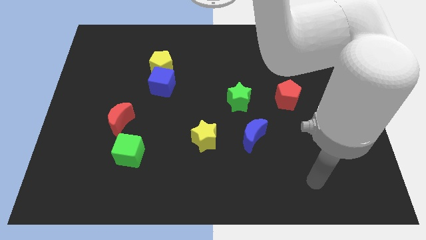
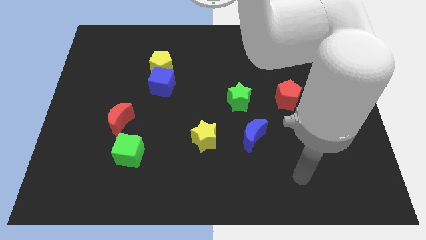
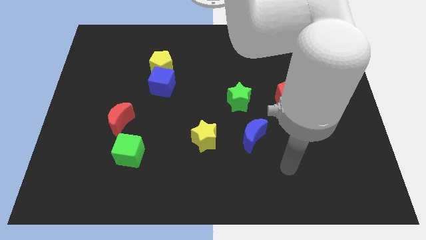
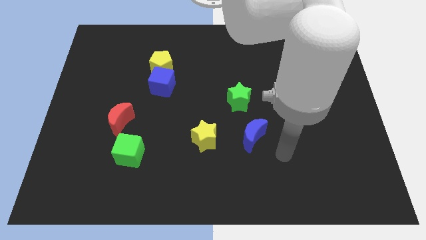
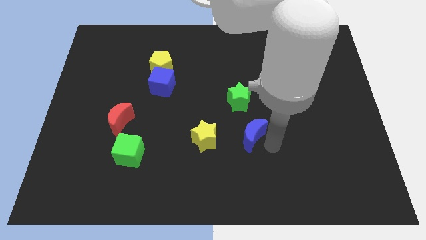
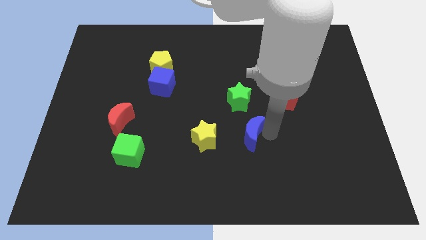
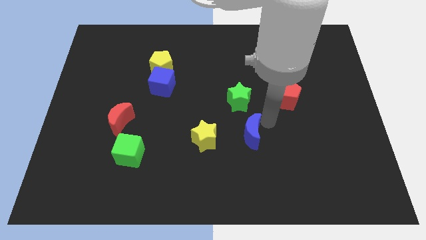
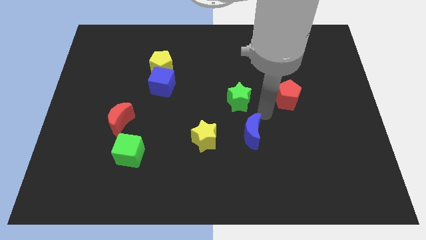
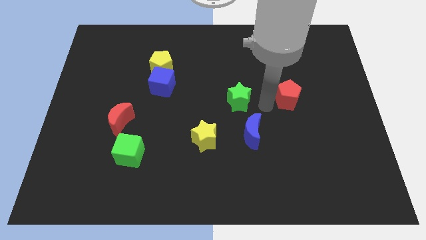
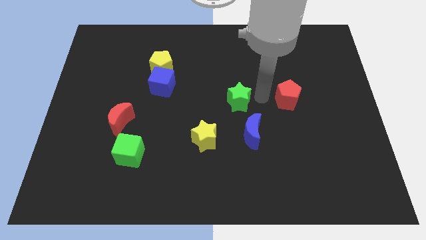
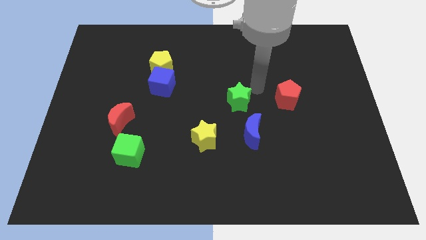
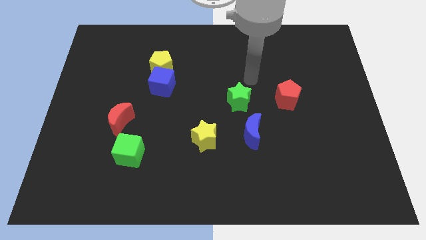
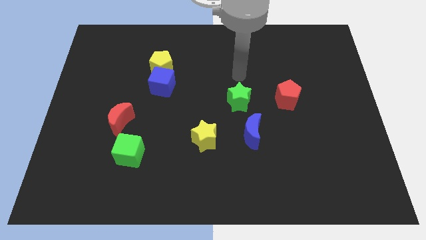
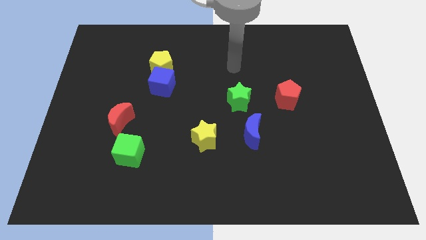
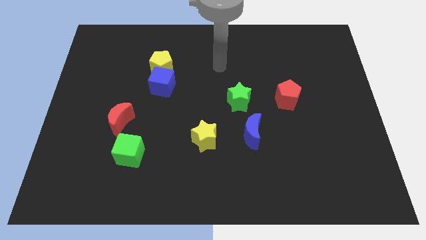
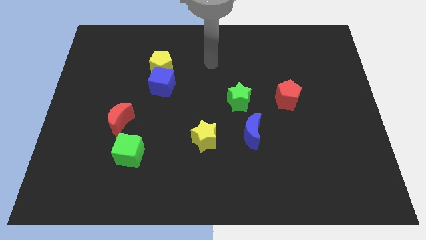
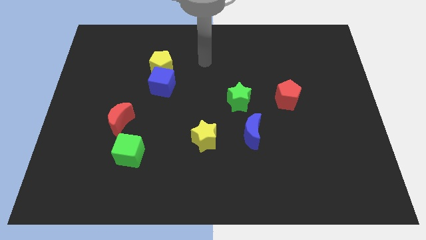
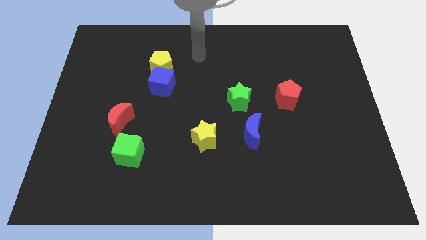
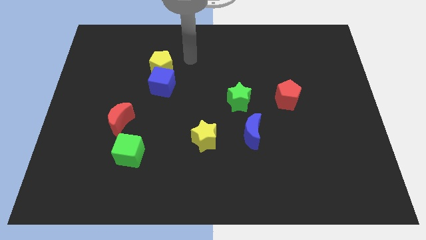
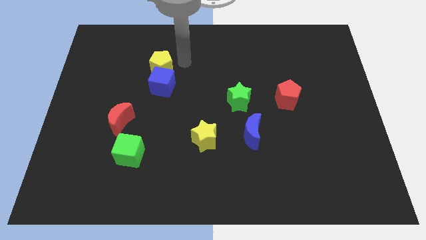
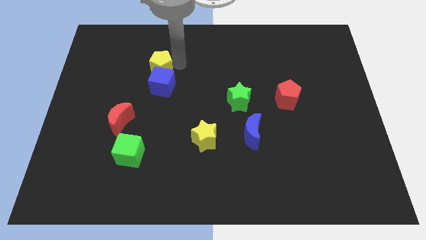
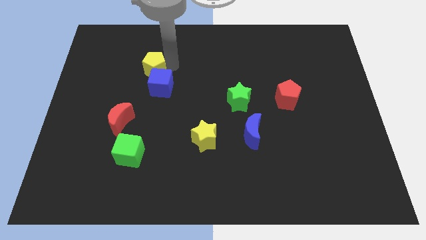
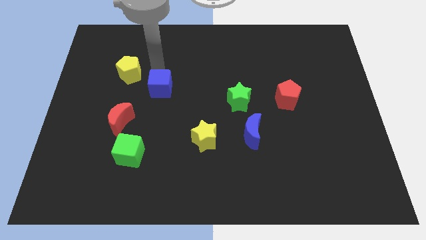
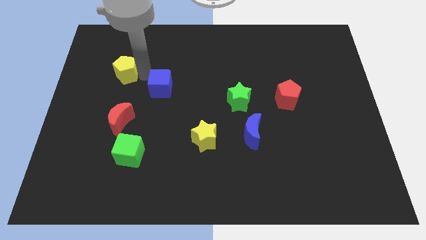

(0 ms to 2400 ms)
move the blue cube away from the yellow pentagon

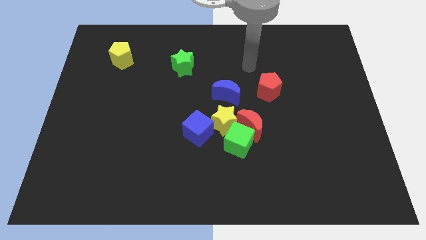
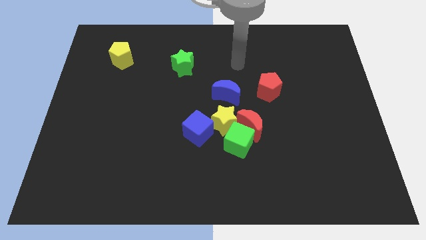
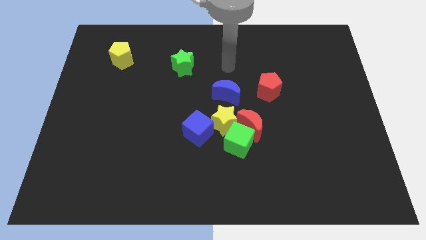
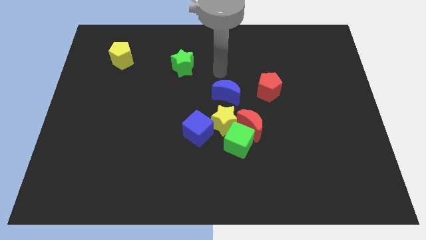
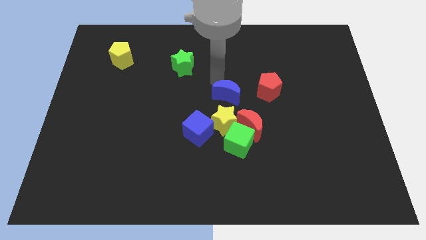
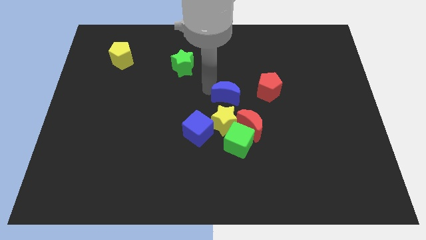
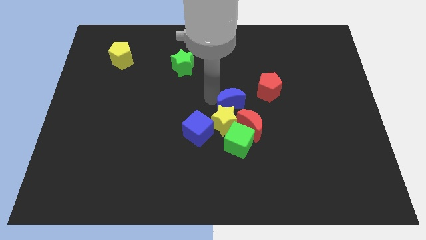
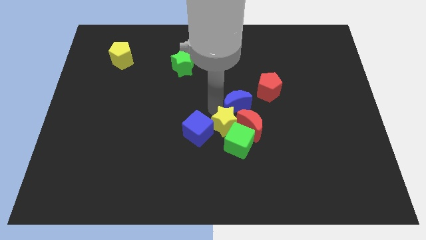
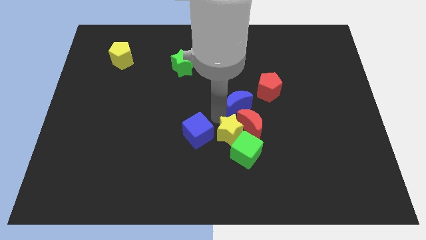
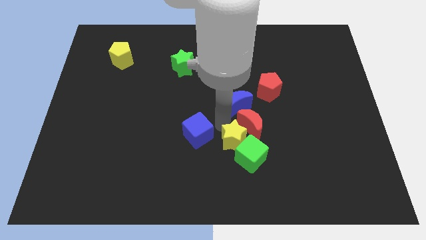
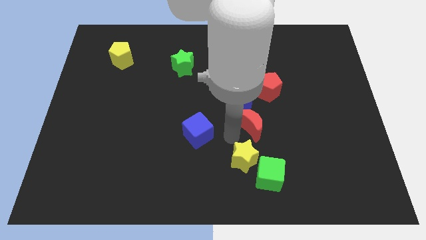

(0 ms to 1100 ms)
pull the red moon apart from the green cube and yellow star

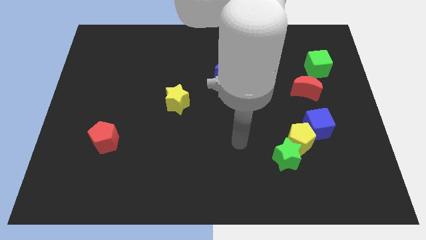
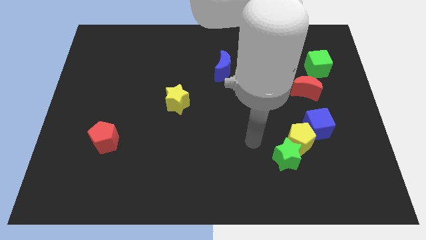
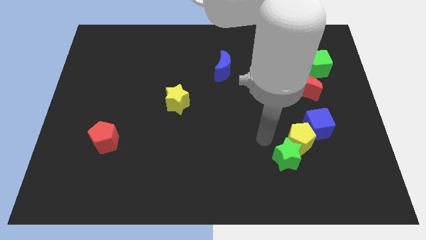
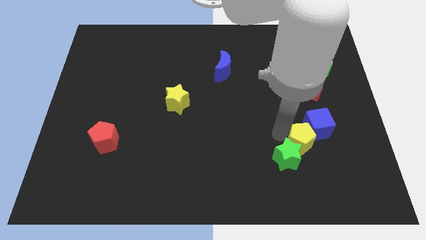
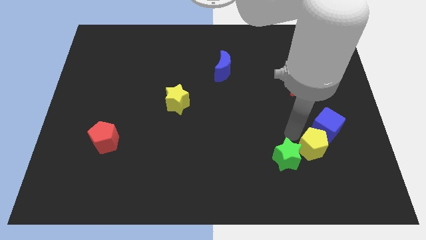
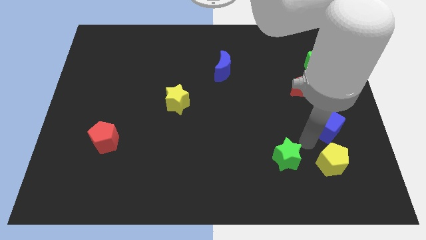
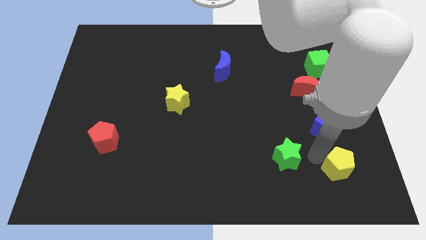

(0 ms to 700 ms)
pull the green star apart from the yellow pentagon

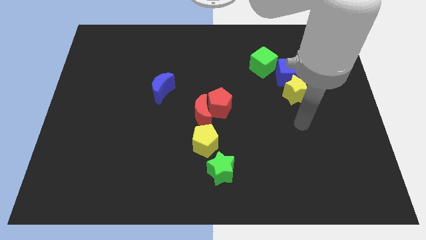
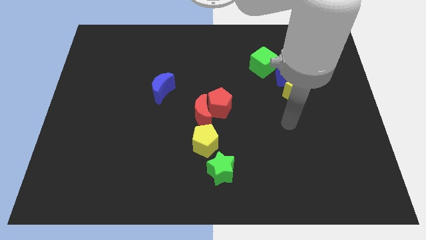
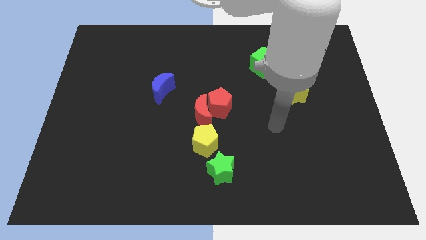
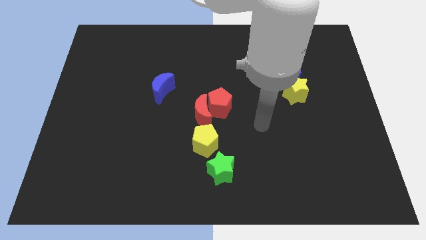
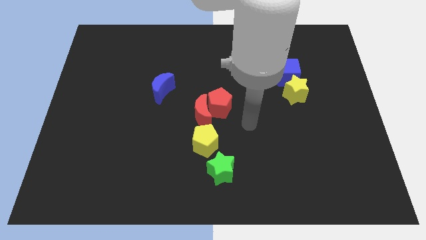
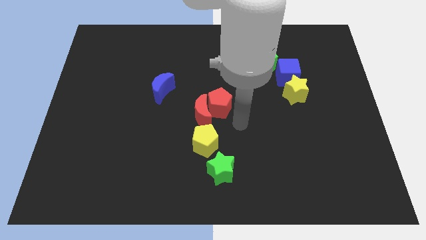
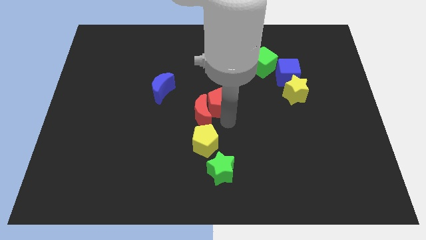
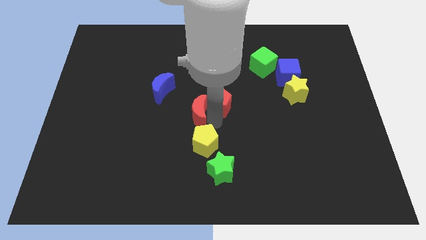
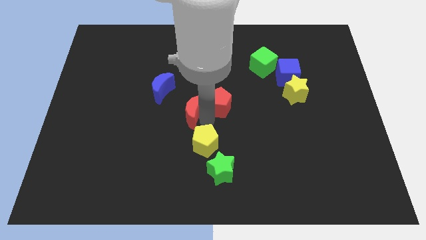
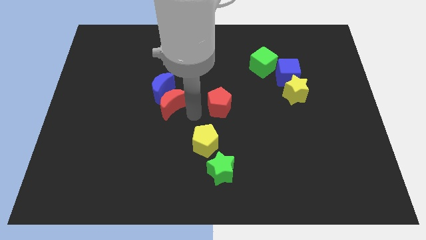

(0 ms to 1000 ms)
pull the red pentagon apart from the red moon

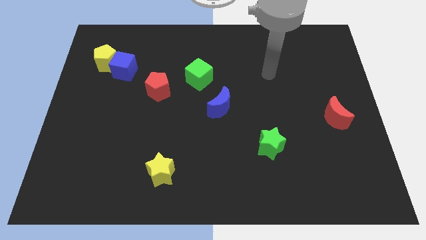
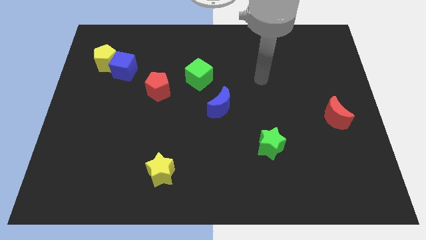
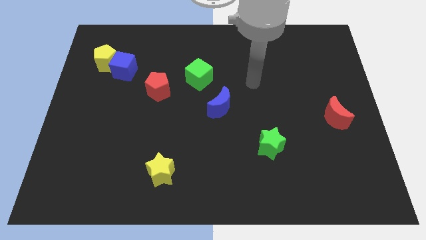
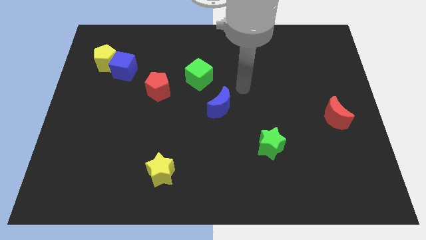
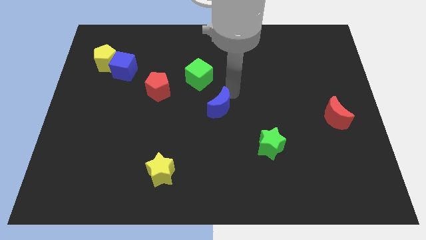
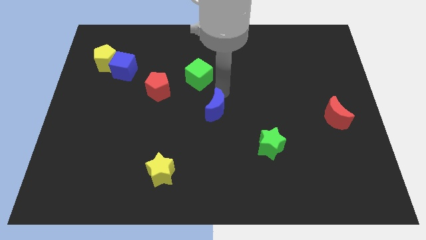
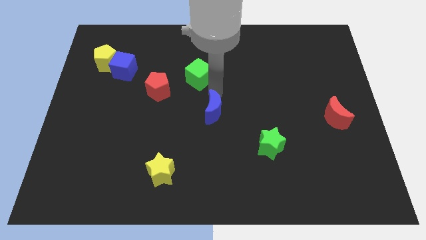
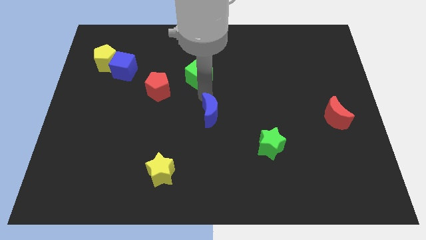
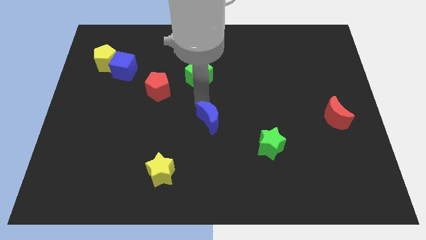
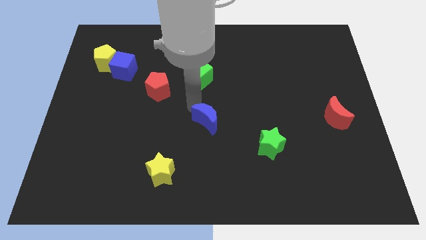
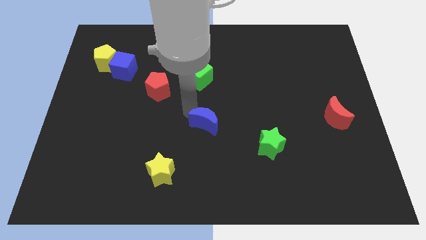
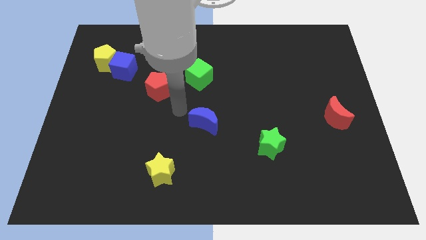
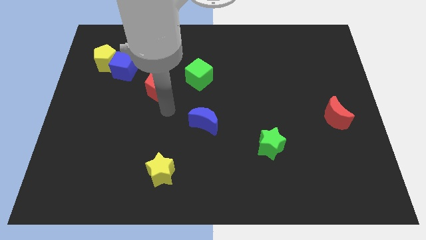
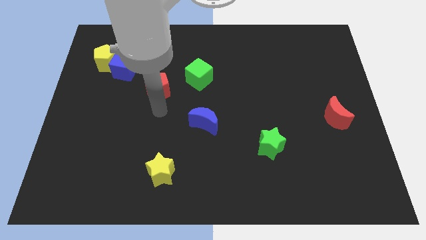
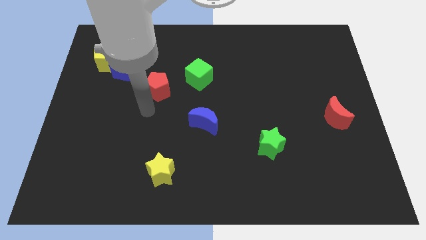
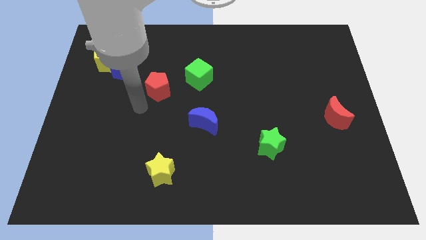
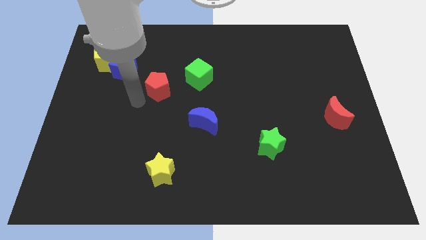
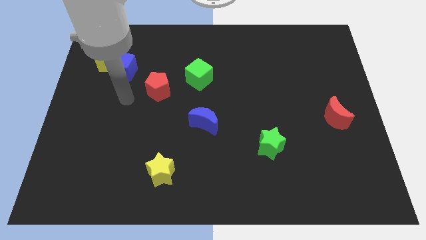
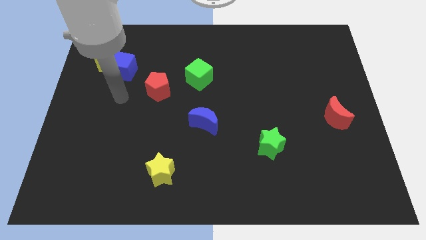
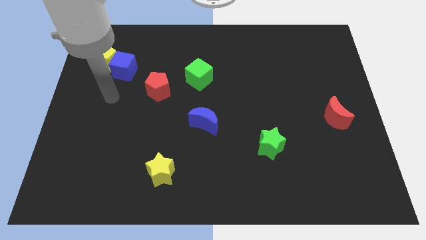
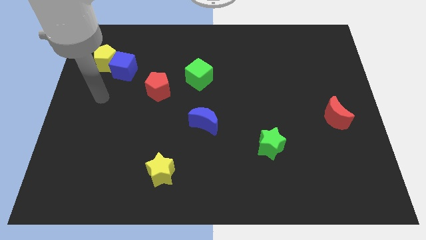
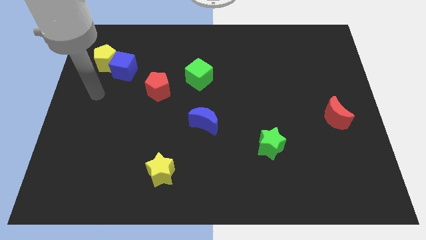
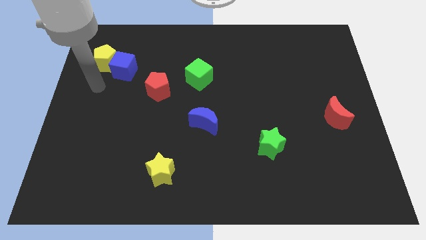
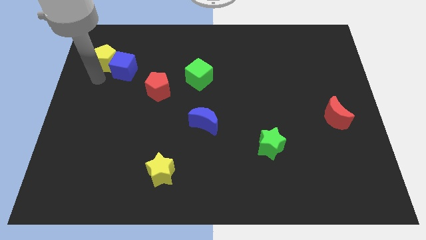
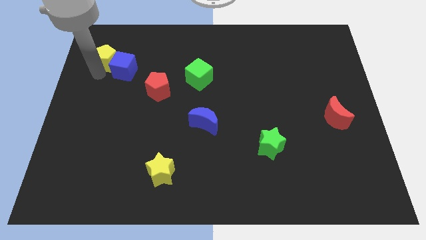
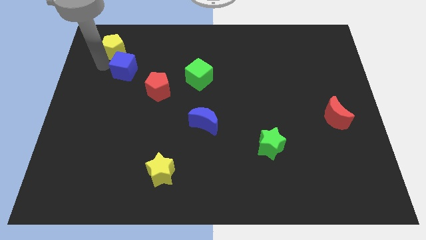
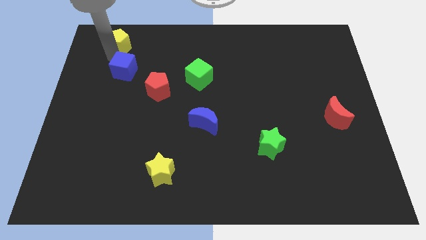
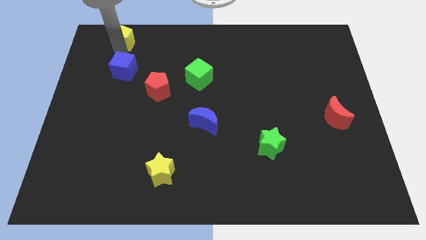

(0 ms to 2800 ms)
separate the blue cube from the yellow pentagon

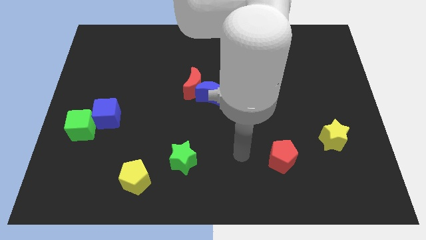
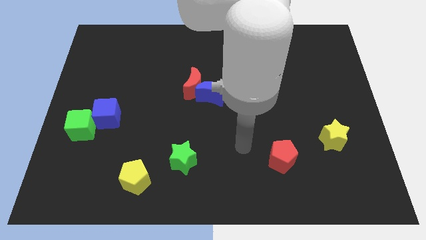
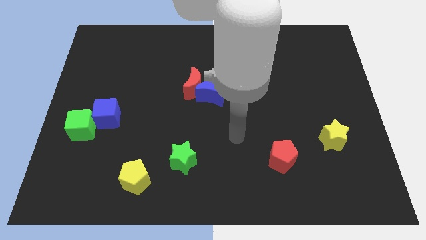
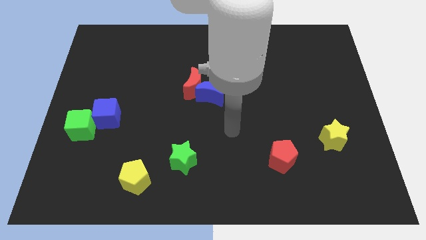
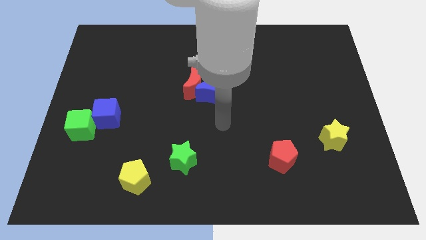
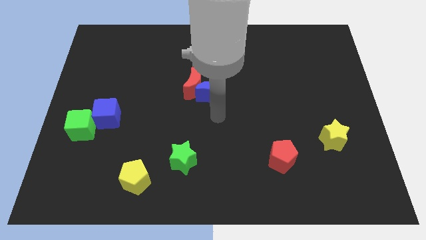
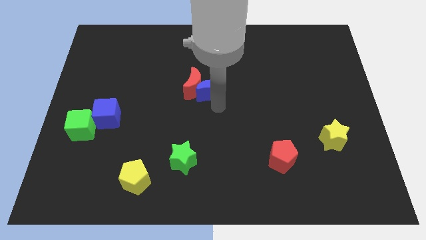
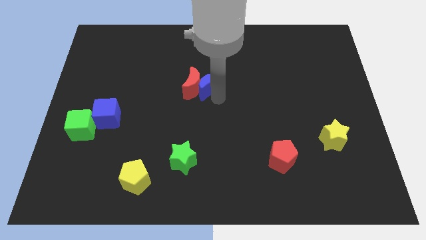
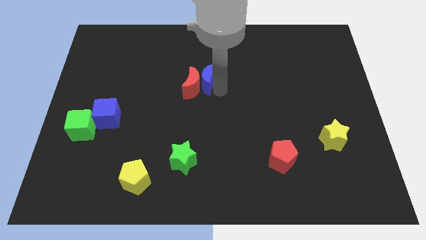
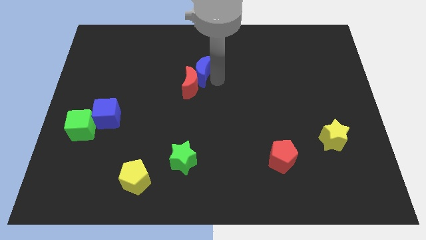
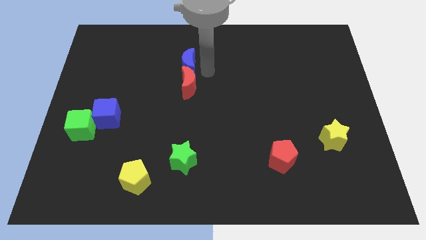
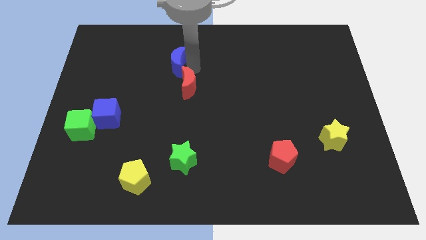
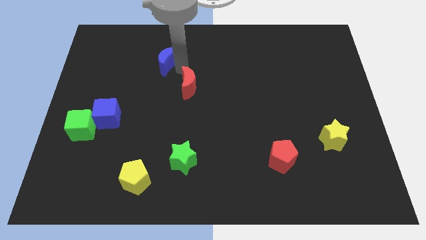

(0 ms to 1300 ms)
pull the red moon apart from the blue moon
